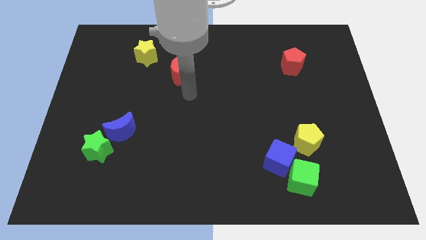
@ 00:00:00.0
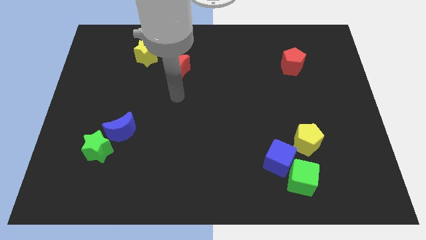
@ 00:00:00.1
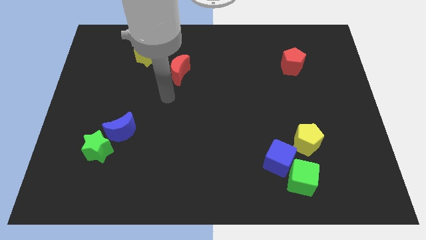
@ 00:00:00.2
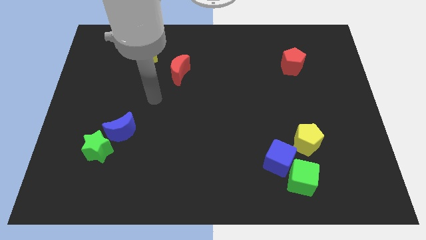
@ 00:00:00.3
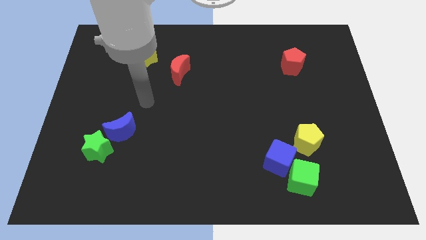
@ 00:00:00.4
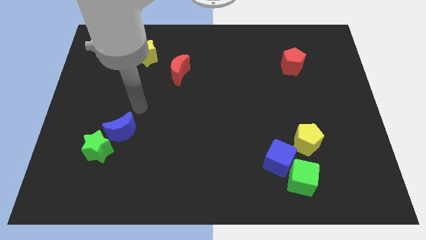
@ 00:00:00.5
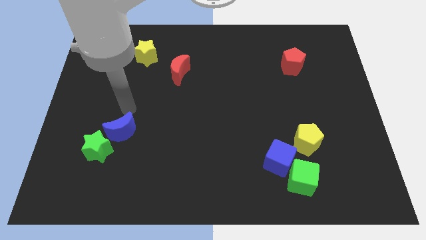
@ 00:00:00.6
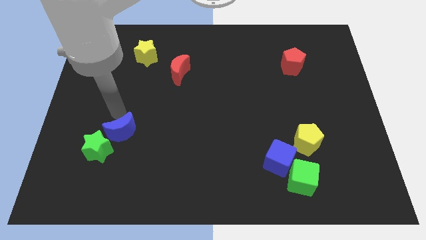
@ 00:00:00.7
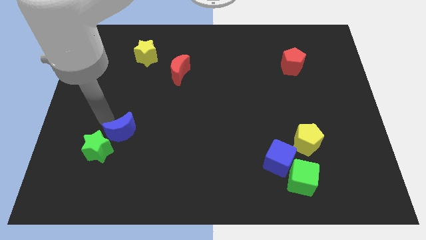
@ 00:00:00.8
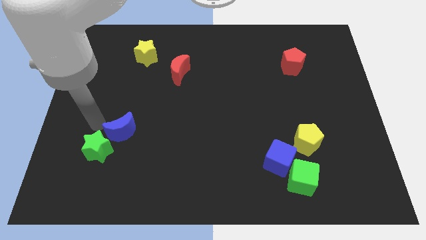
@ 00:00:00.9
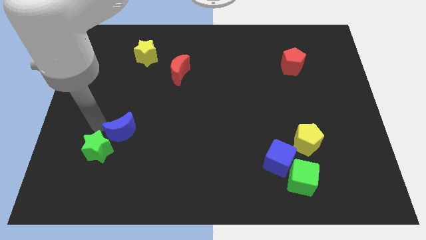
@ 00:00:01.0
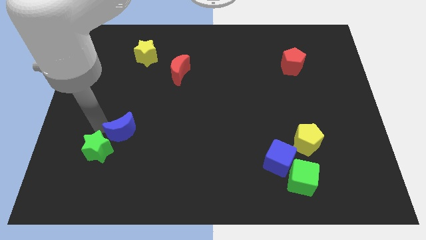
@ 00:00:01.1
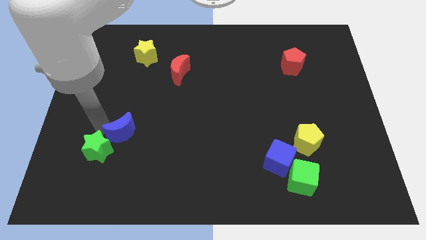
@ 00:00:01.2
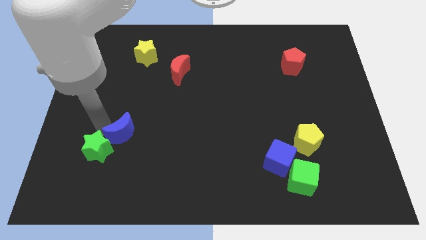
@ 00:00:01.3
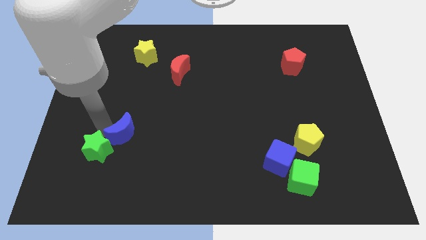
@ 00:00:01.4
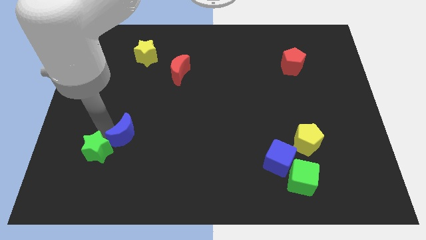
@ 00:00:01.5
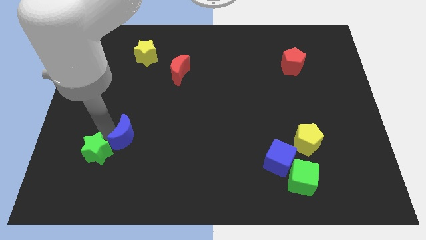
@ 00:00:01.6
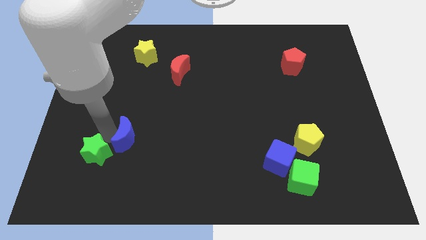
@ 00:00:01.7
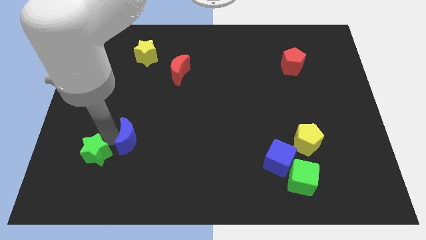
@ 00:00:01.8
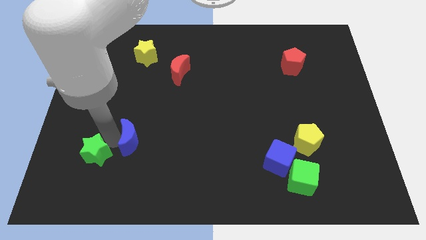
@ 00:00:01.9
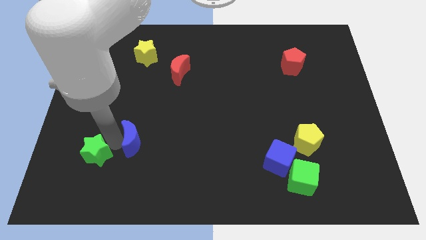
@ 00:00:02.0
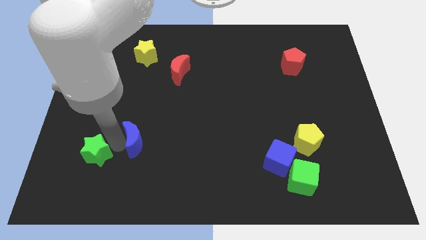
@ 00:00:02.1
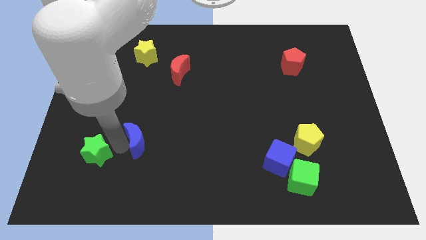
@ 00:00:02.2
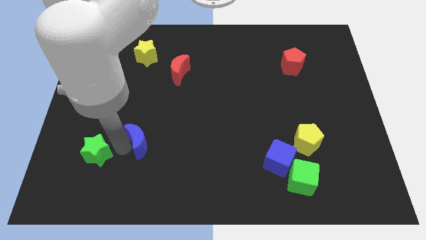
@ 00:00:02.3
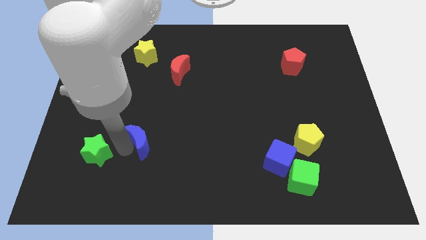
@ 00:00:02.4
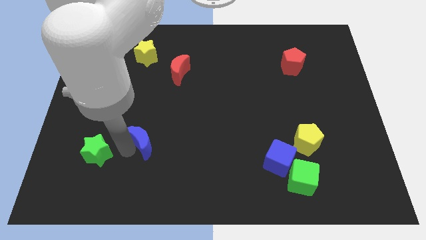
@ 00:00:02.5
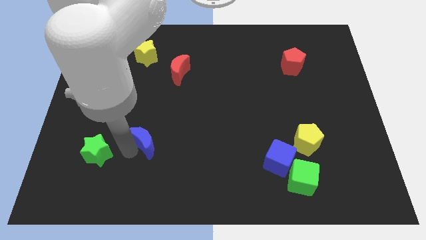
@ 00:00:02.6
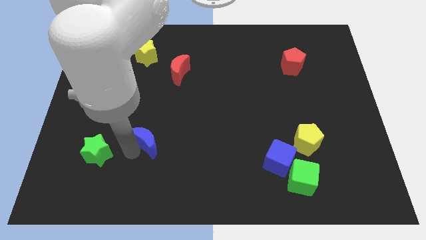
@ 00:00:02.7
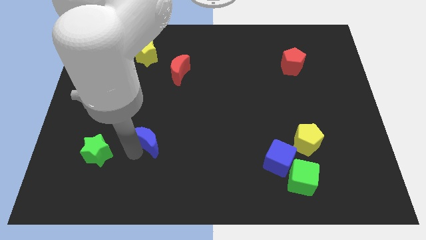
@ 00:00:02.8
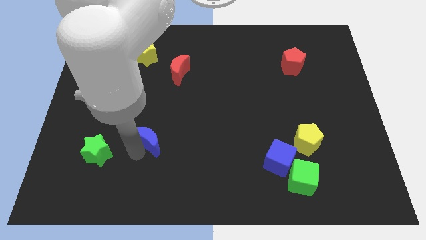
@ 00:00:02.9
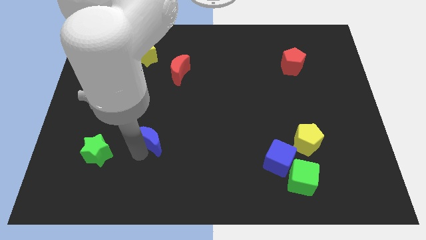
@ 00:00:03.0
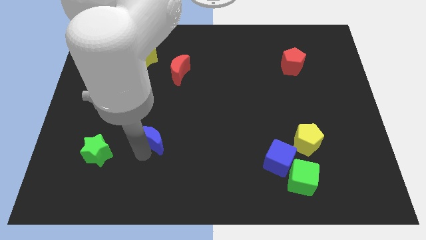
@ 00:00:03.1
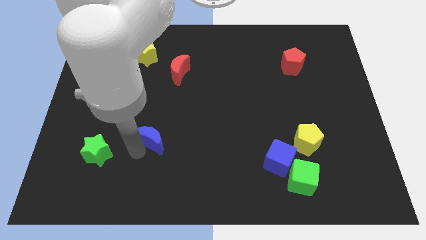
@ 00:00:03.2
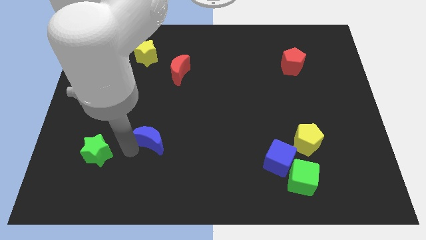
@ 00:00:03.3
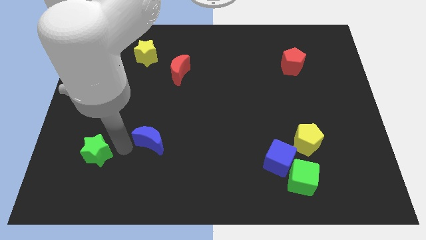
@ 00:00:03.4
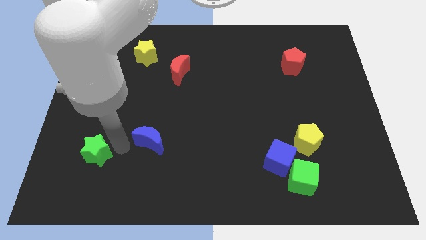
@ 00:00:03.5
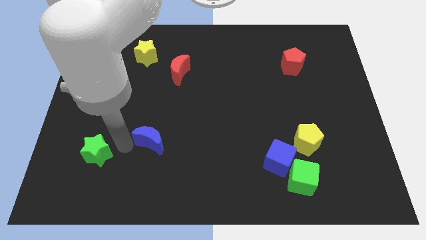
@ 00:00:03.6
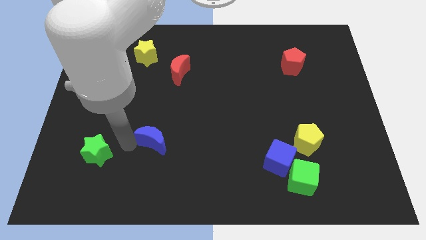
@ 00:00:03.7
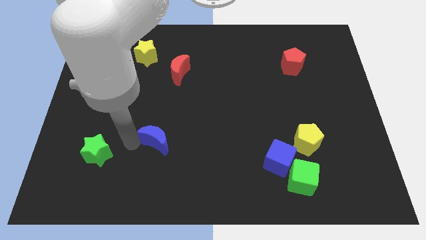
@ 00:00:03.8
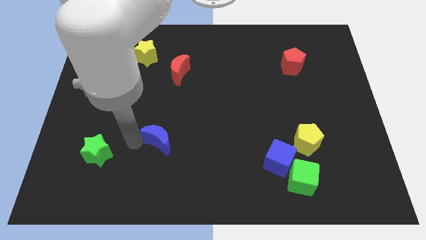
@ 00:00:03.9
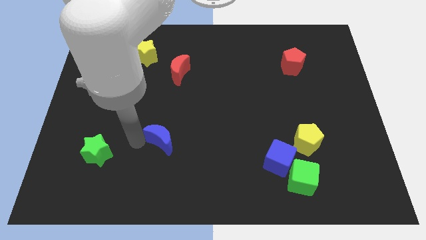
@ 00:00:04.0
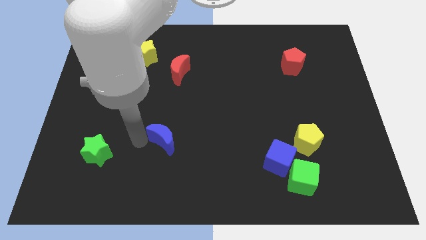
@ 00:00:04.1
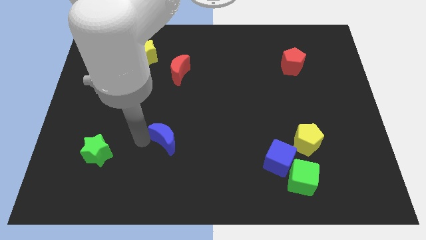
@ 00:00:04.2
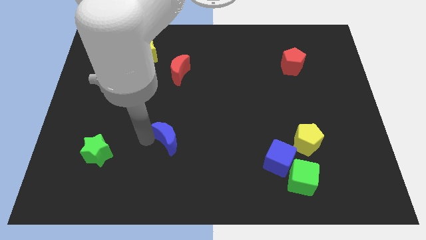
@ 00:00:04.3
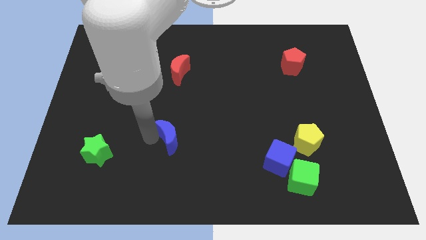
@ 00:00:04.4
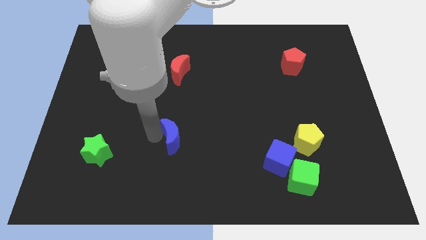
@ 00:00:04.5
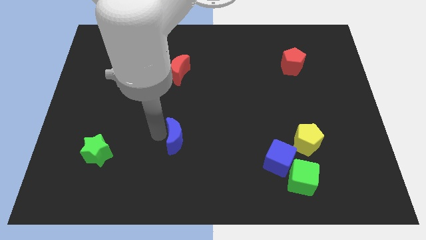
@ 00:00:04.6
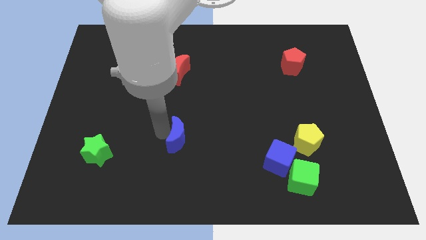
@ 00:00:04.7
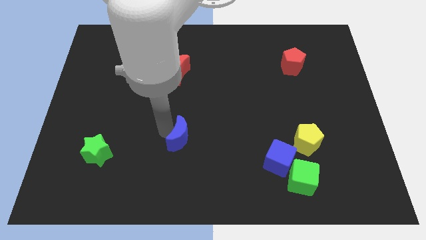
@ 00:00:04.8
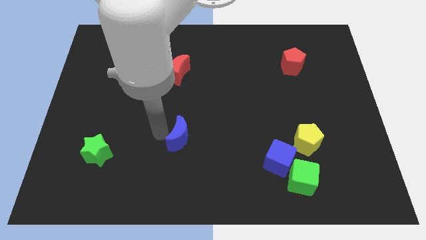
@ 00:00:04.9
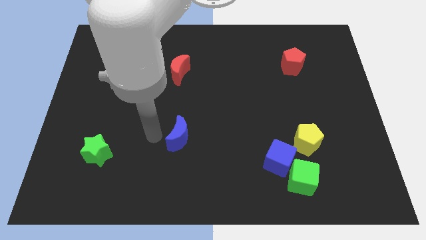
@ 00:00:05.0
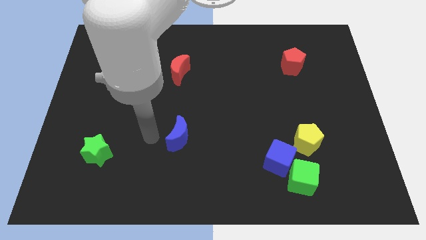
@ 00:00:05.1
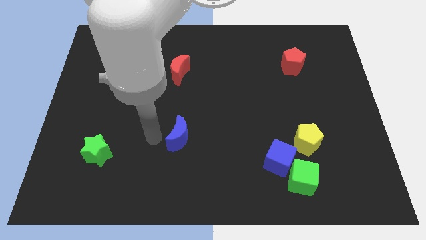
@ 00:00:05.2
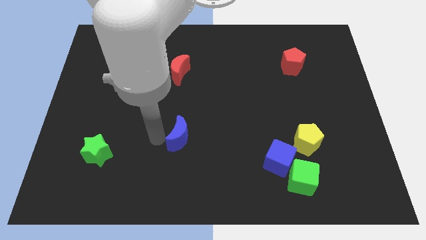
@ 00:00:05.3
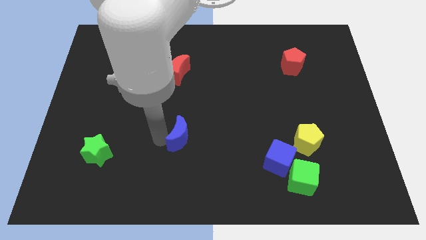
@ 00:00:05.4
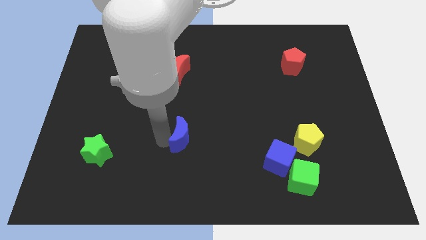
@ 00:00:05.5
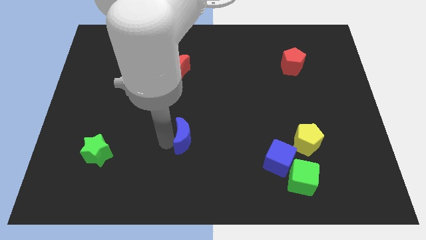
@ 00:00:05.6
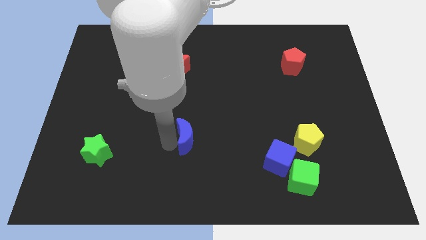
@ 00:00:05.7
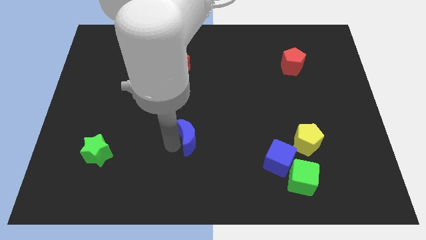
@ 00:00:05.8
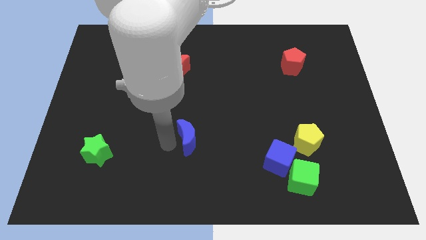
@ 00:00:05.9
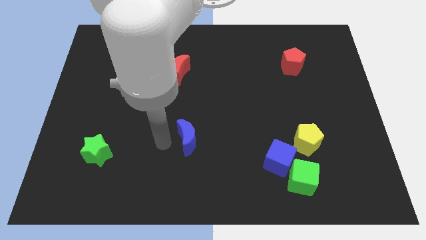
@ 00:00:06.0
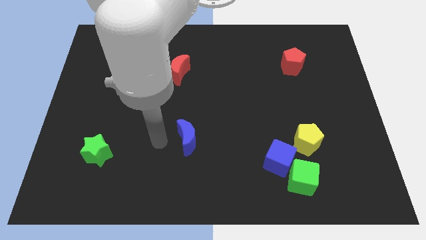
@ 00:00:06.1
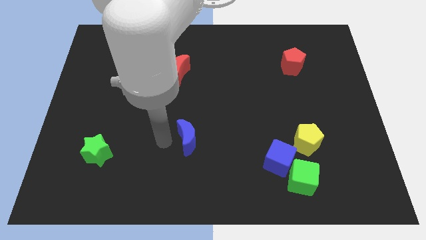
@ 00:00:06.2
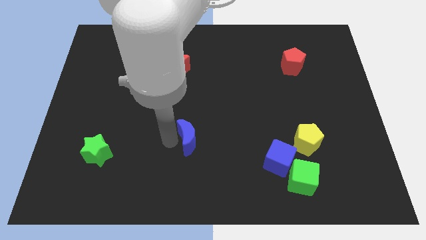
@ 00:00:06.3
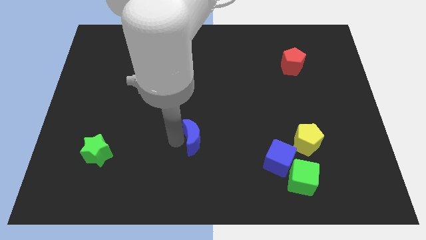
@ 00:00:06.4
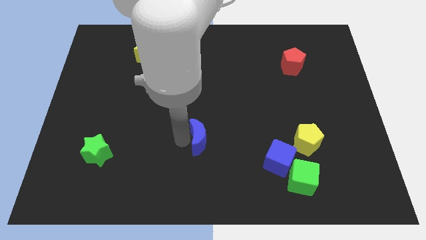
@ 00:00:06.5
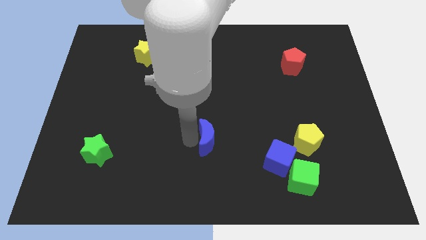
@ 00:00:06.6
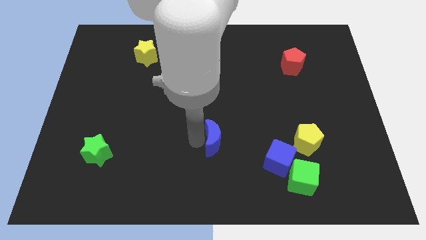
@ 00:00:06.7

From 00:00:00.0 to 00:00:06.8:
move the blue moon right

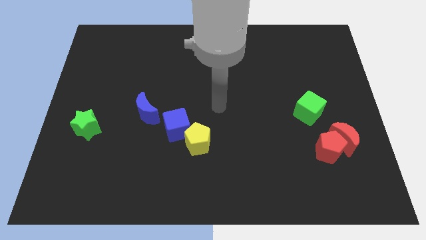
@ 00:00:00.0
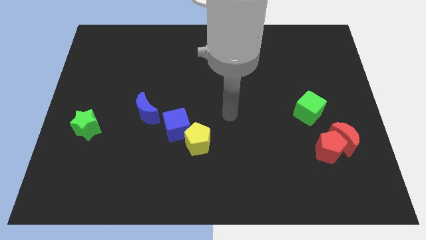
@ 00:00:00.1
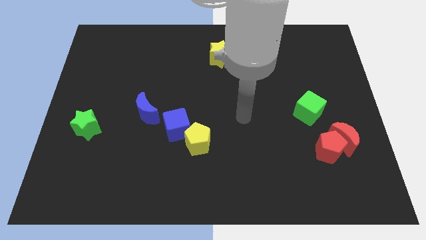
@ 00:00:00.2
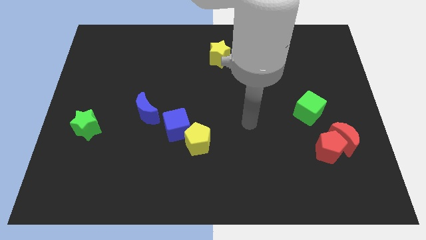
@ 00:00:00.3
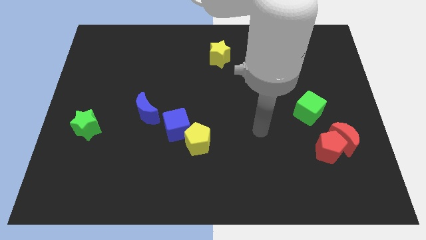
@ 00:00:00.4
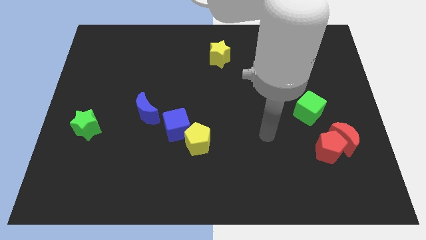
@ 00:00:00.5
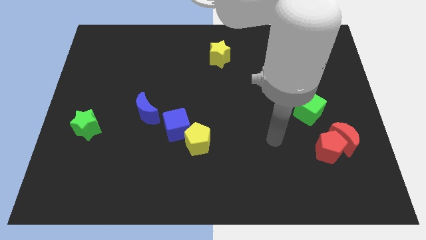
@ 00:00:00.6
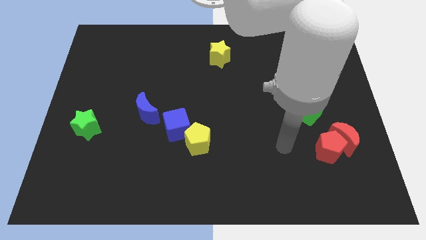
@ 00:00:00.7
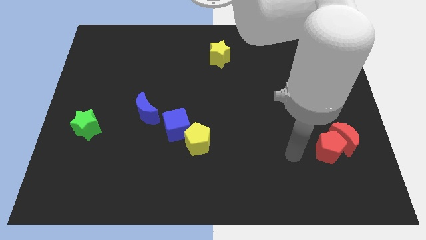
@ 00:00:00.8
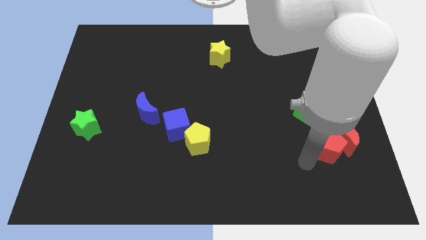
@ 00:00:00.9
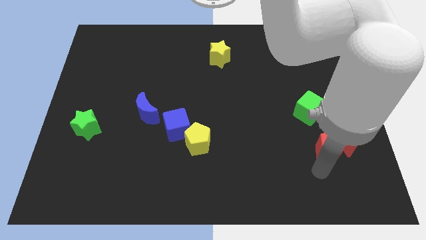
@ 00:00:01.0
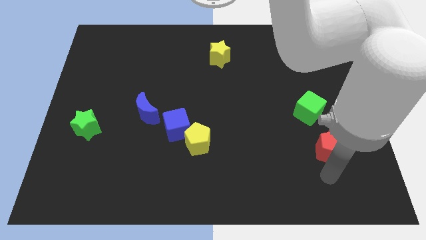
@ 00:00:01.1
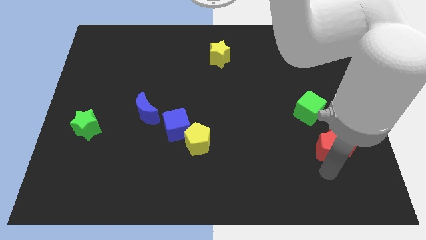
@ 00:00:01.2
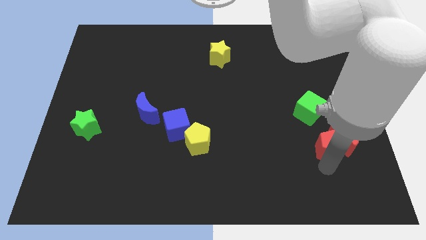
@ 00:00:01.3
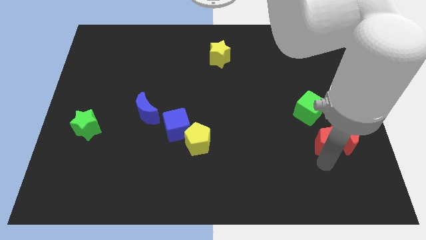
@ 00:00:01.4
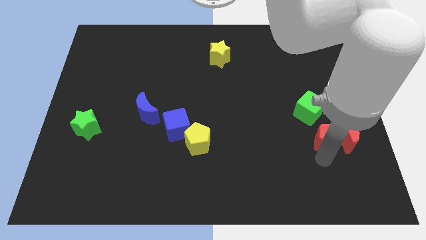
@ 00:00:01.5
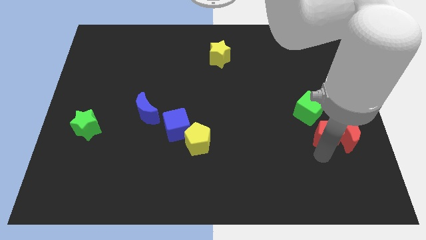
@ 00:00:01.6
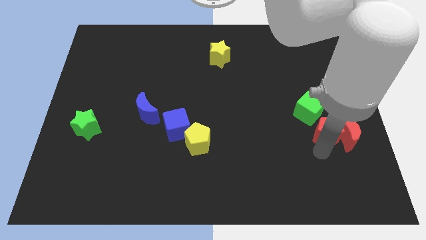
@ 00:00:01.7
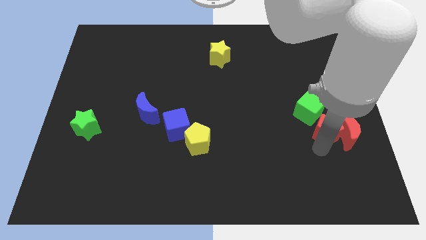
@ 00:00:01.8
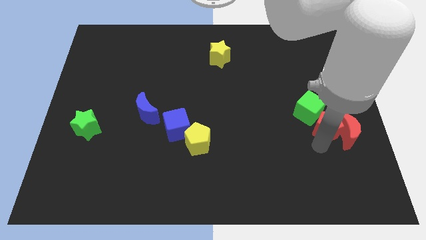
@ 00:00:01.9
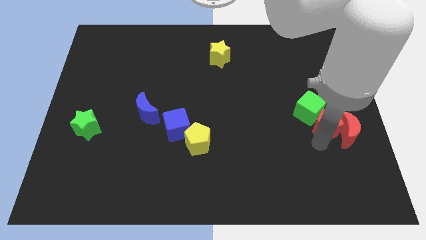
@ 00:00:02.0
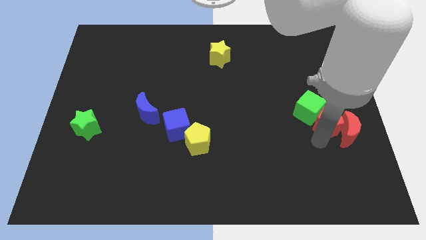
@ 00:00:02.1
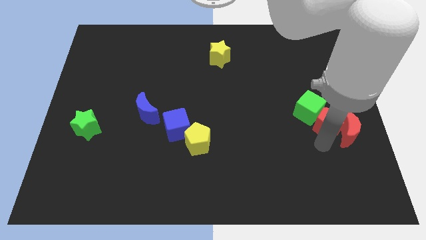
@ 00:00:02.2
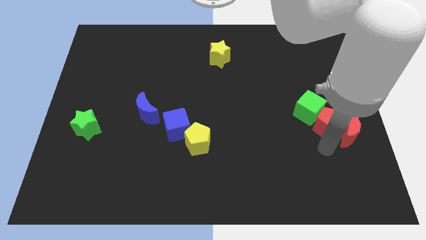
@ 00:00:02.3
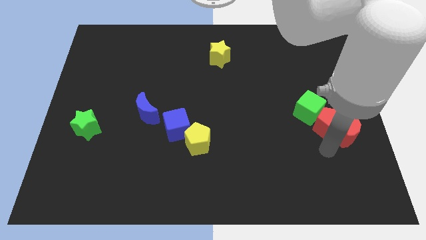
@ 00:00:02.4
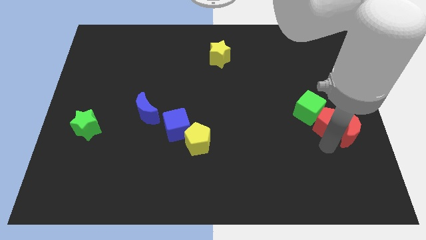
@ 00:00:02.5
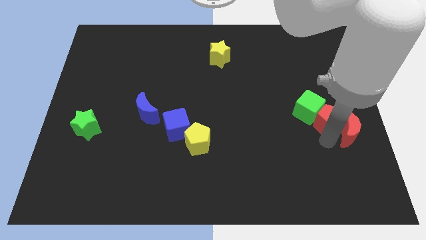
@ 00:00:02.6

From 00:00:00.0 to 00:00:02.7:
push the red pentagon a bit upwards
